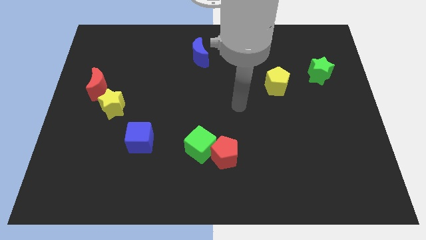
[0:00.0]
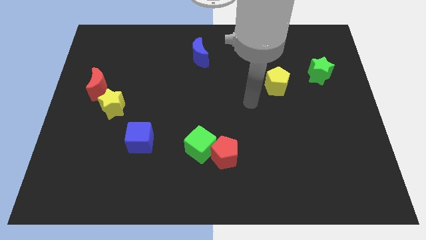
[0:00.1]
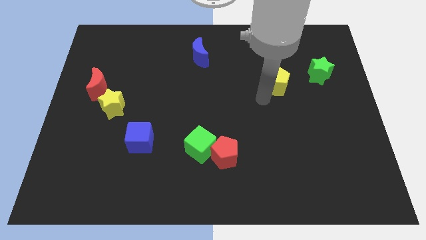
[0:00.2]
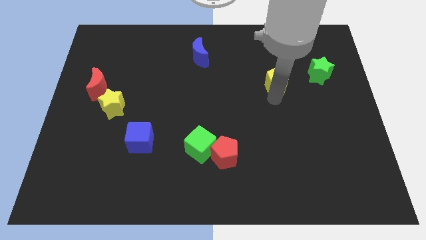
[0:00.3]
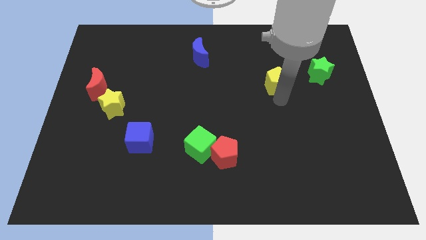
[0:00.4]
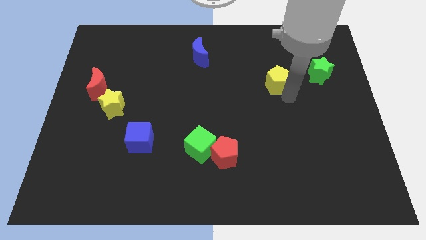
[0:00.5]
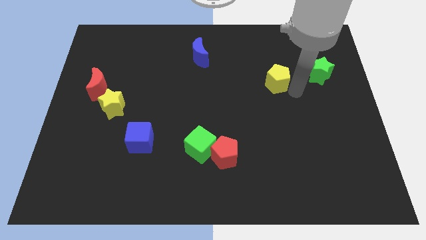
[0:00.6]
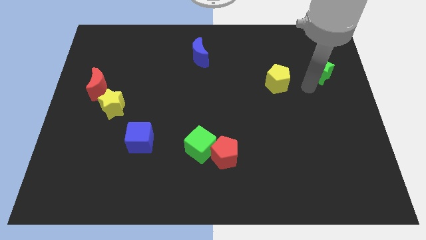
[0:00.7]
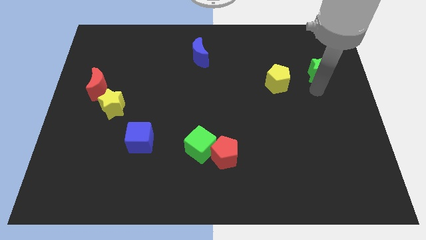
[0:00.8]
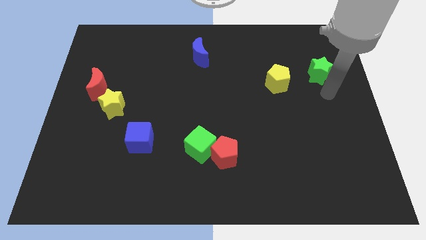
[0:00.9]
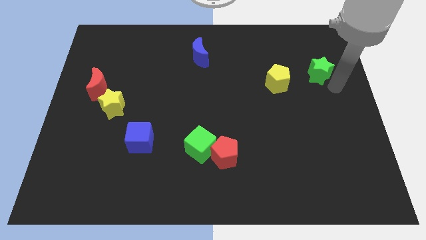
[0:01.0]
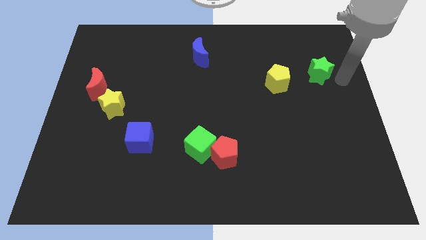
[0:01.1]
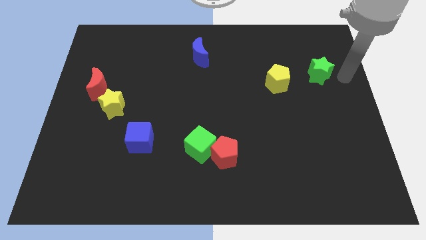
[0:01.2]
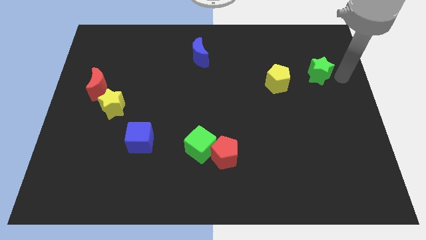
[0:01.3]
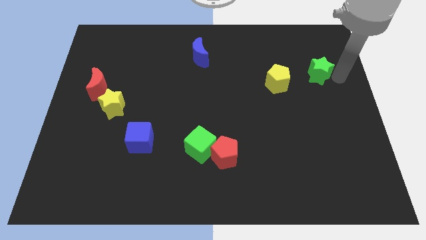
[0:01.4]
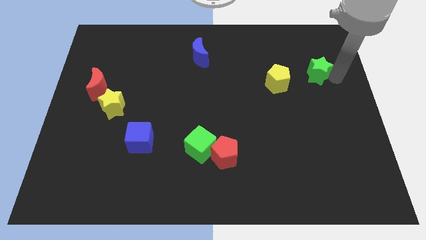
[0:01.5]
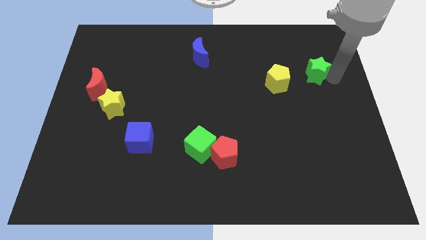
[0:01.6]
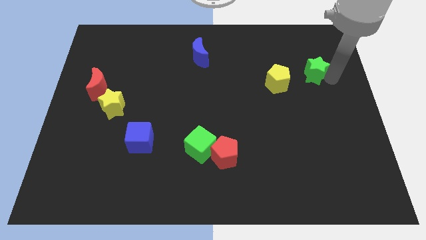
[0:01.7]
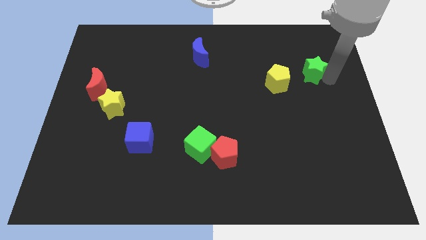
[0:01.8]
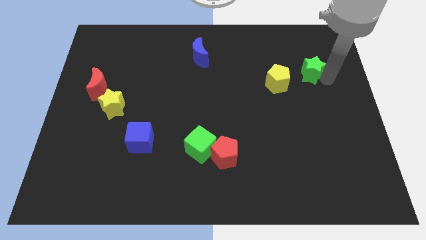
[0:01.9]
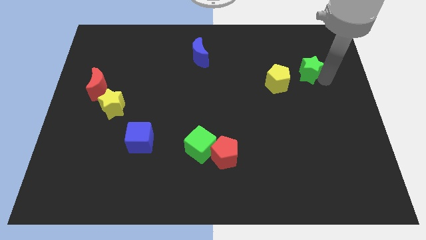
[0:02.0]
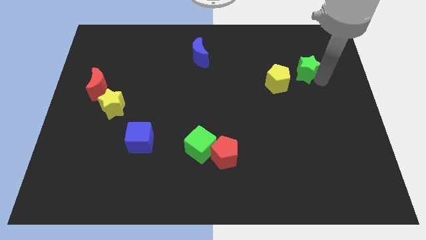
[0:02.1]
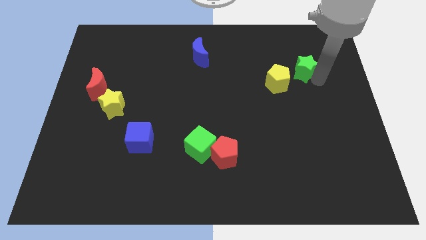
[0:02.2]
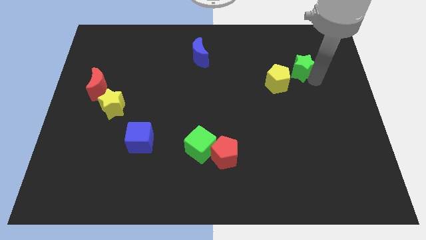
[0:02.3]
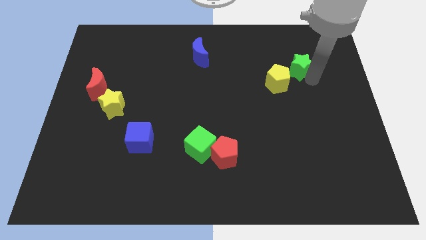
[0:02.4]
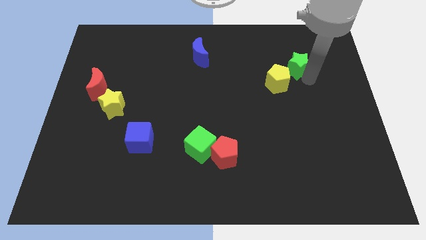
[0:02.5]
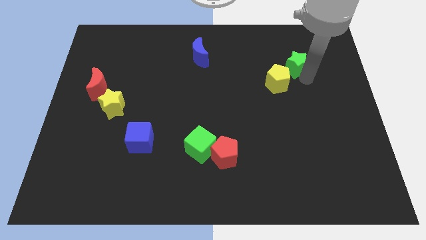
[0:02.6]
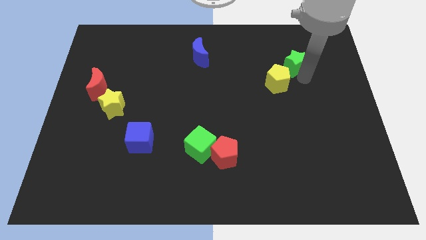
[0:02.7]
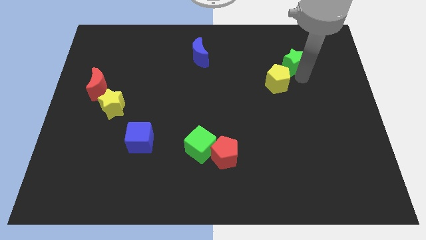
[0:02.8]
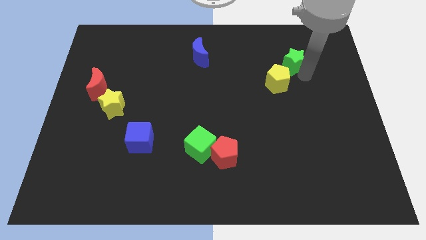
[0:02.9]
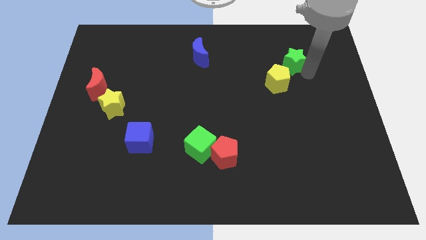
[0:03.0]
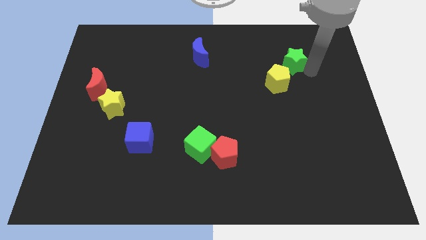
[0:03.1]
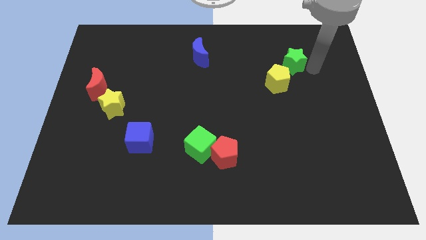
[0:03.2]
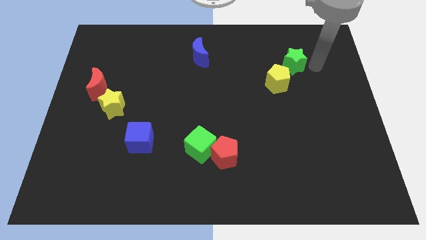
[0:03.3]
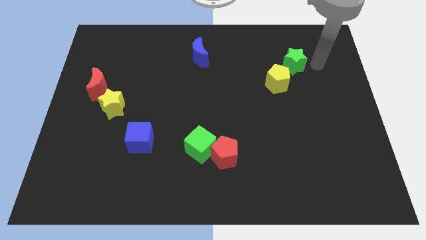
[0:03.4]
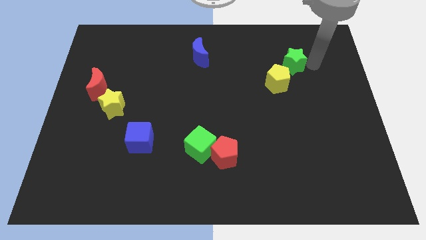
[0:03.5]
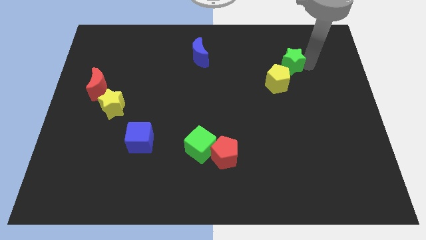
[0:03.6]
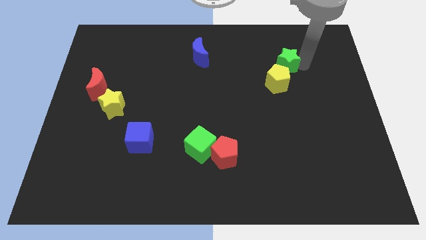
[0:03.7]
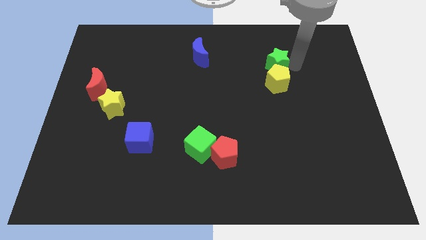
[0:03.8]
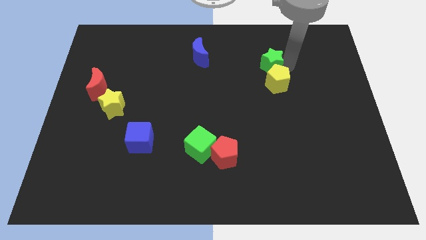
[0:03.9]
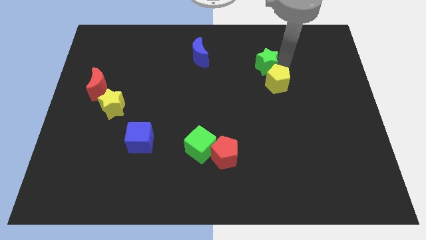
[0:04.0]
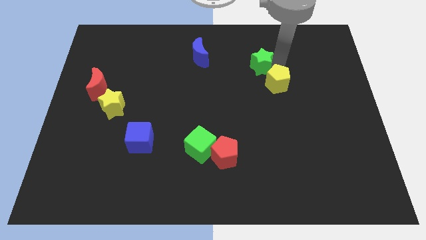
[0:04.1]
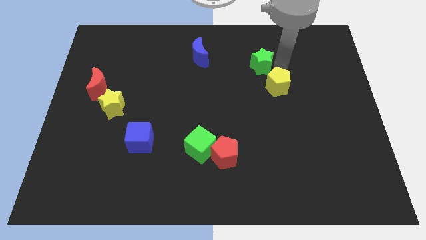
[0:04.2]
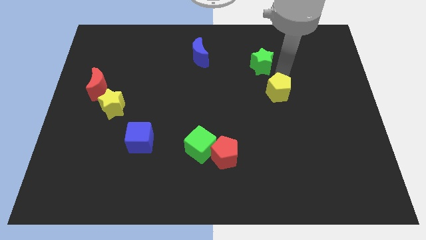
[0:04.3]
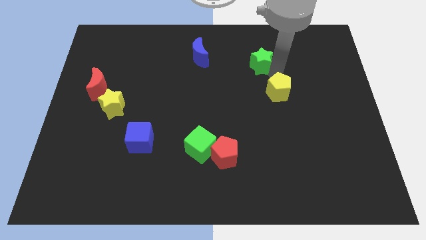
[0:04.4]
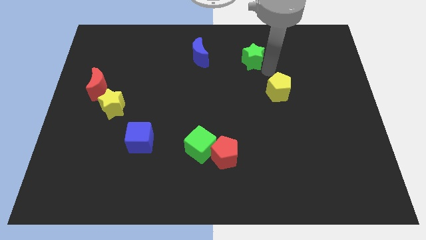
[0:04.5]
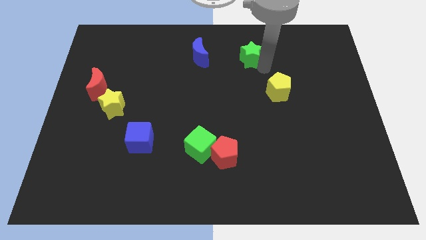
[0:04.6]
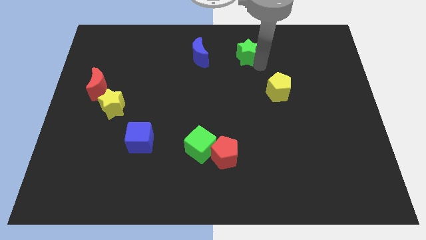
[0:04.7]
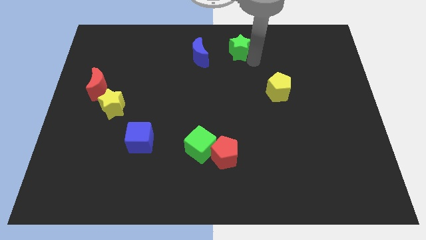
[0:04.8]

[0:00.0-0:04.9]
move the green star to the top side
